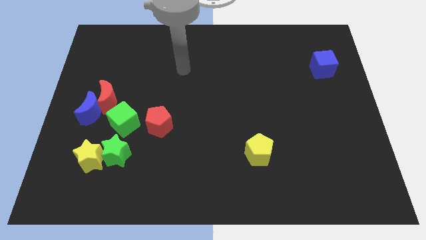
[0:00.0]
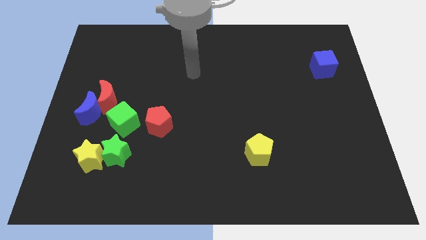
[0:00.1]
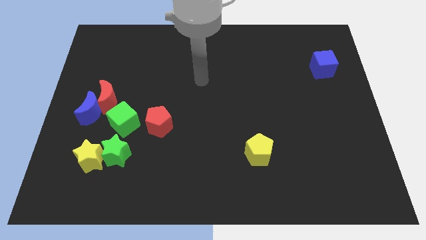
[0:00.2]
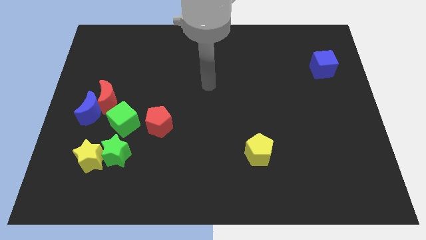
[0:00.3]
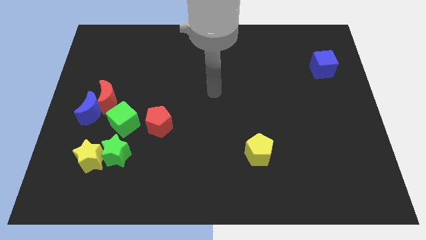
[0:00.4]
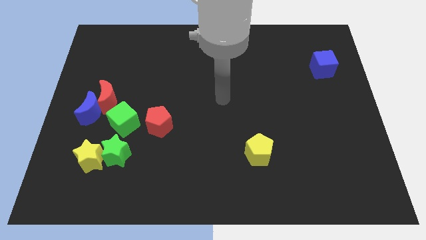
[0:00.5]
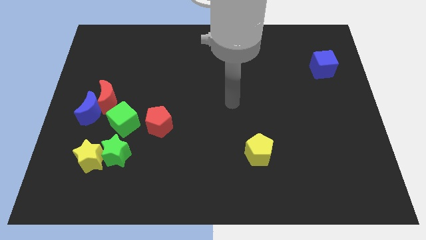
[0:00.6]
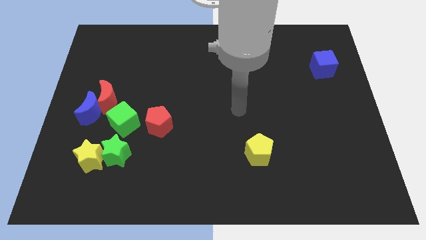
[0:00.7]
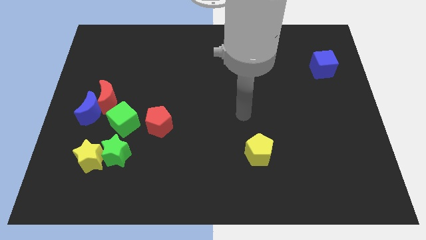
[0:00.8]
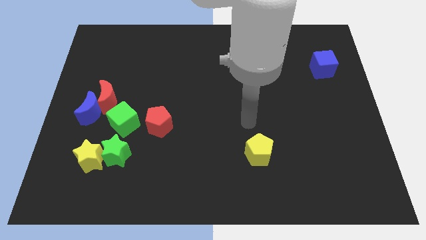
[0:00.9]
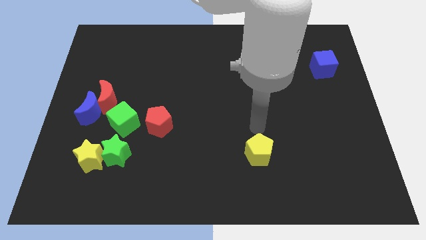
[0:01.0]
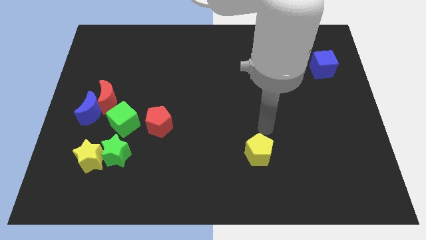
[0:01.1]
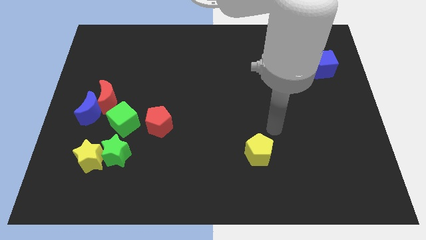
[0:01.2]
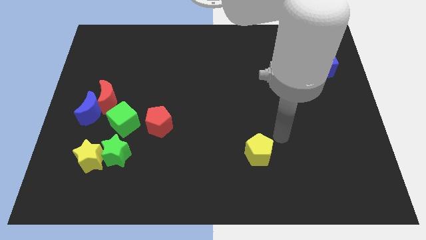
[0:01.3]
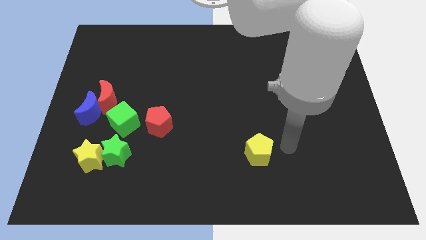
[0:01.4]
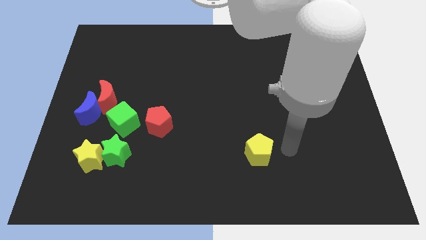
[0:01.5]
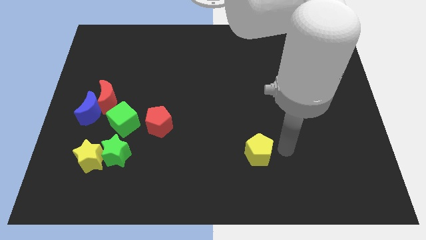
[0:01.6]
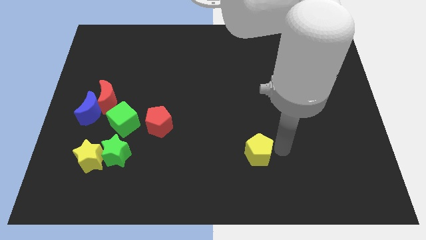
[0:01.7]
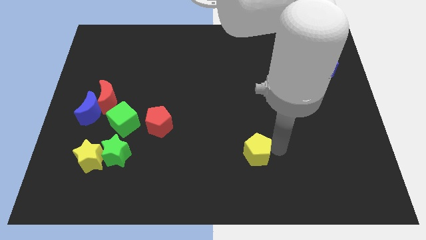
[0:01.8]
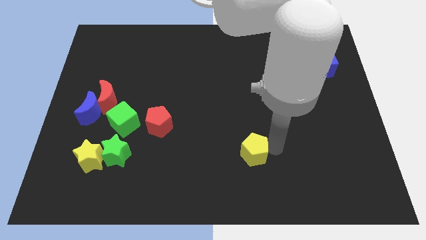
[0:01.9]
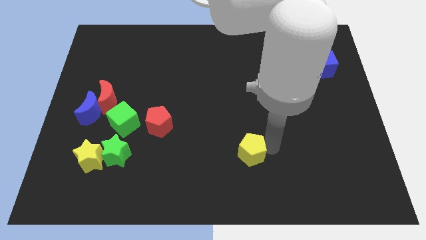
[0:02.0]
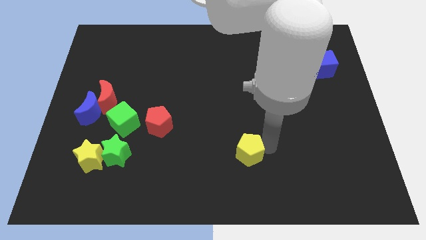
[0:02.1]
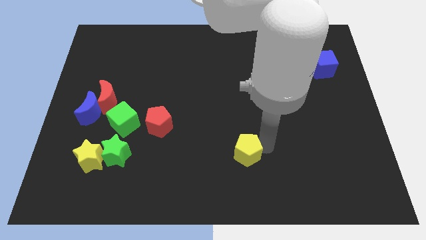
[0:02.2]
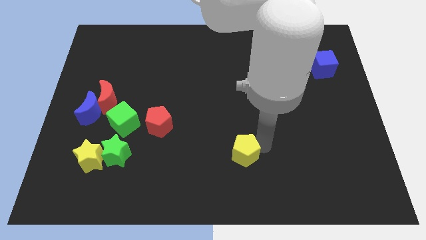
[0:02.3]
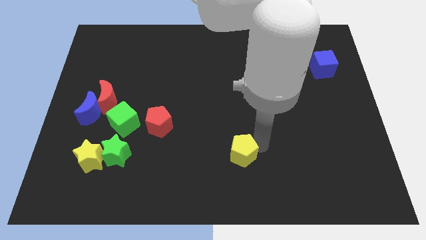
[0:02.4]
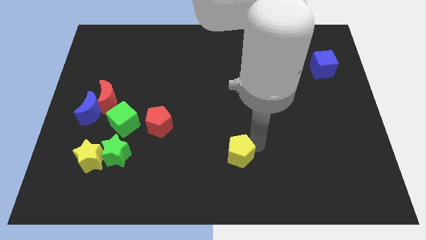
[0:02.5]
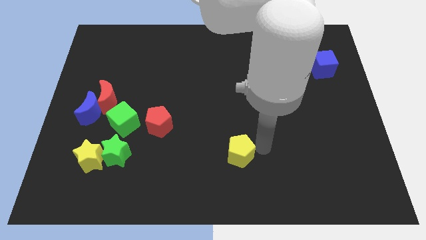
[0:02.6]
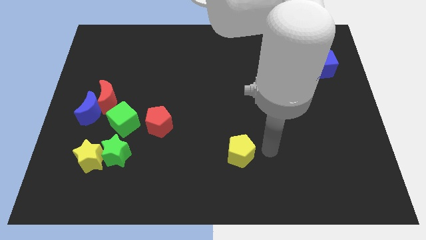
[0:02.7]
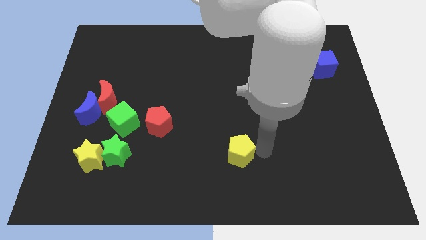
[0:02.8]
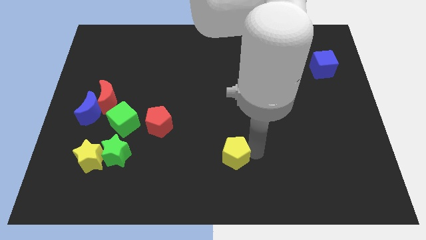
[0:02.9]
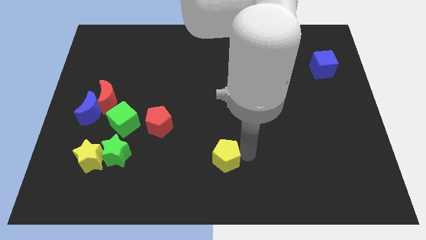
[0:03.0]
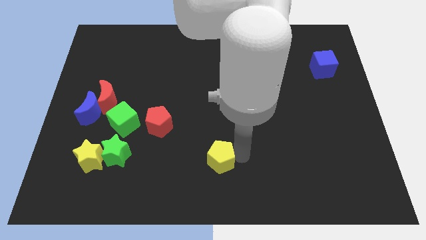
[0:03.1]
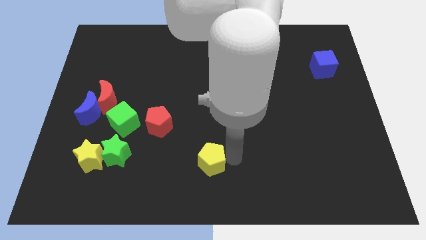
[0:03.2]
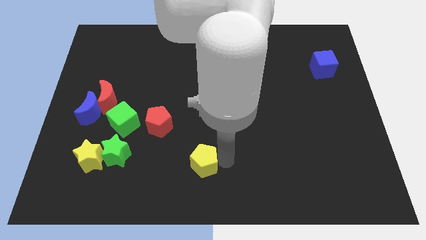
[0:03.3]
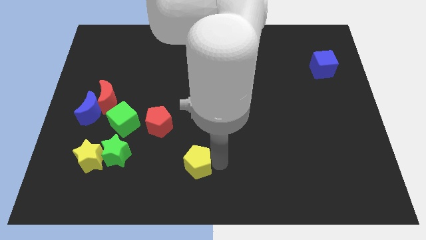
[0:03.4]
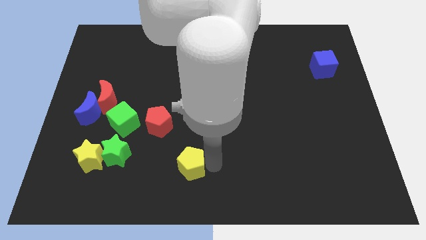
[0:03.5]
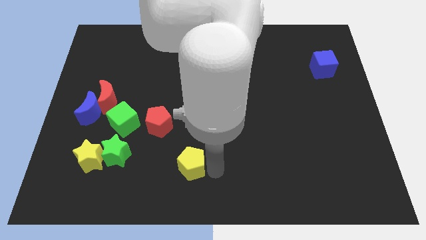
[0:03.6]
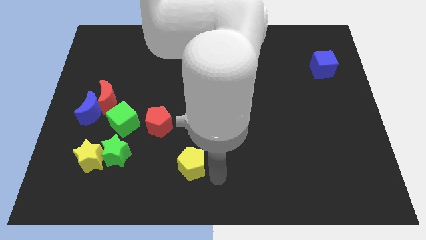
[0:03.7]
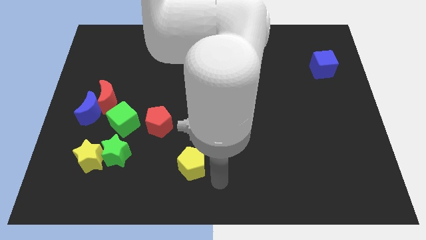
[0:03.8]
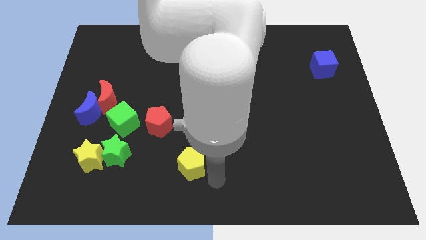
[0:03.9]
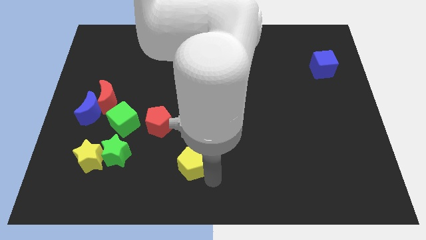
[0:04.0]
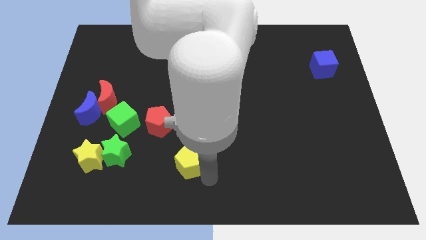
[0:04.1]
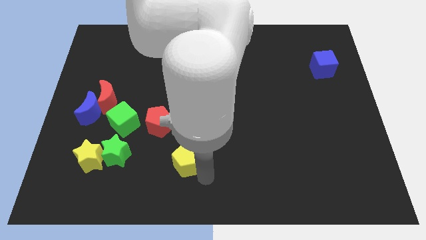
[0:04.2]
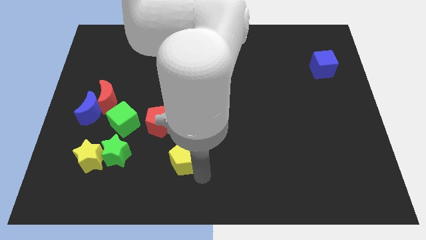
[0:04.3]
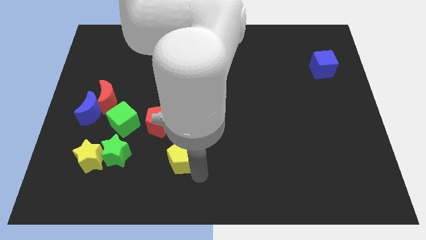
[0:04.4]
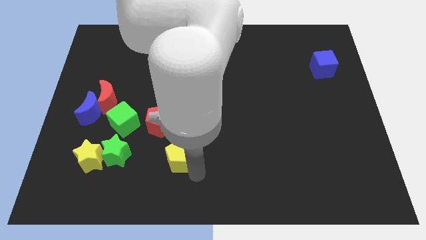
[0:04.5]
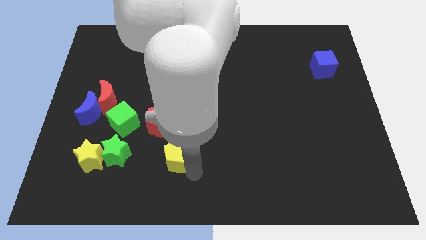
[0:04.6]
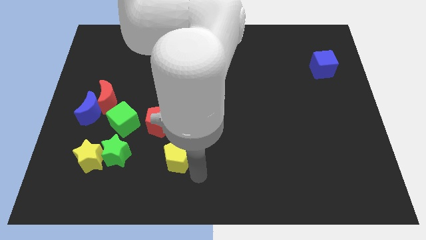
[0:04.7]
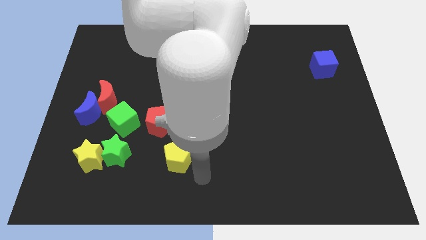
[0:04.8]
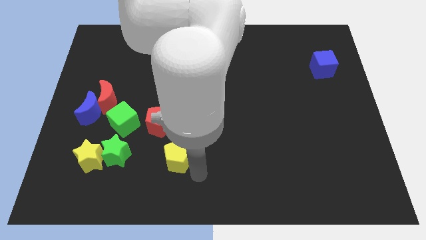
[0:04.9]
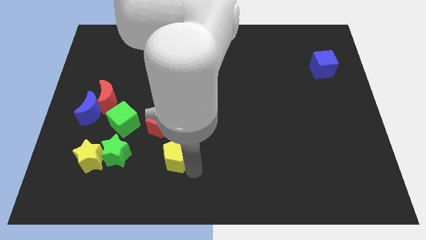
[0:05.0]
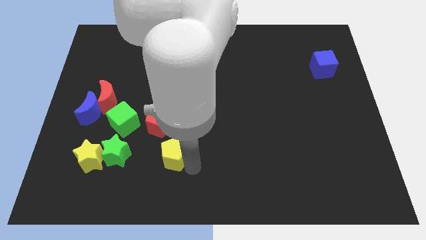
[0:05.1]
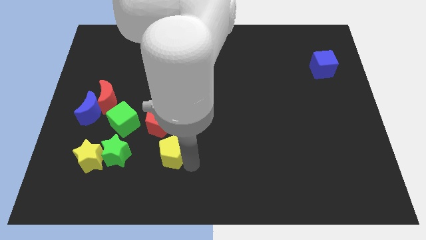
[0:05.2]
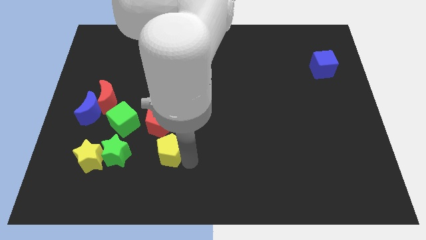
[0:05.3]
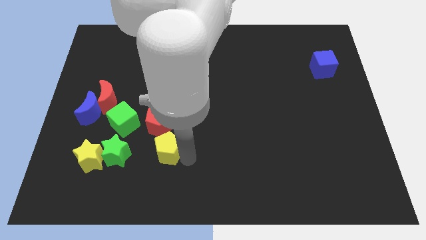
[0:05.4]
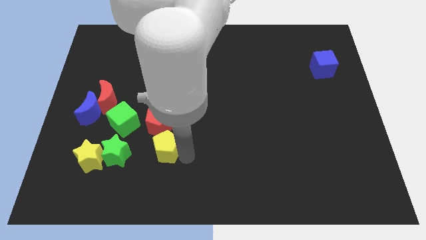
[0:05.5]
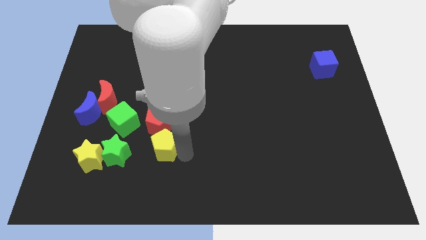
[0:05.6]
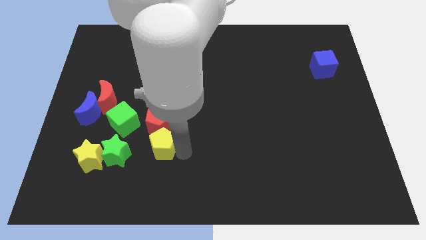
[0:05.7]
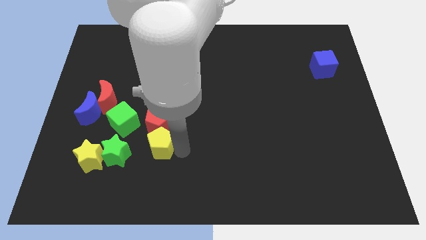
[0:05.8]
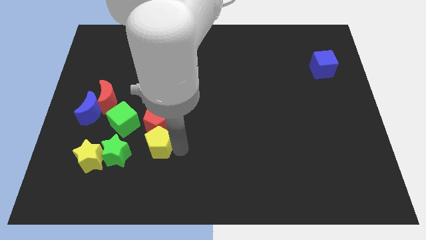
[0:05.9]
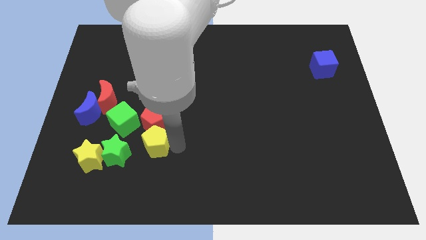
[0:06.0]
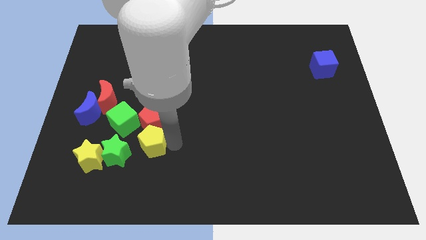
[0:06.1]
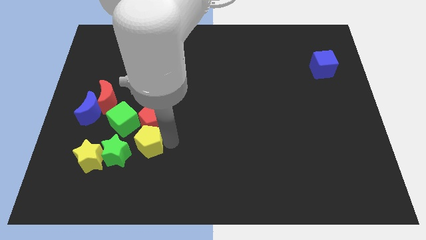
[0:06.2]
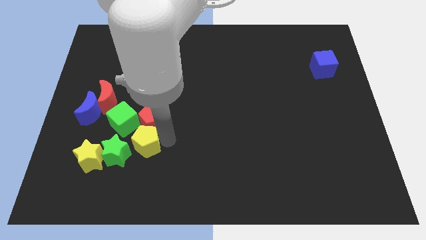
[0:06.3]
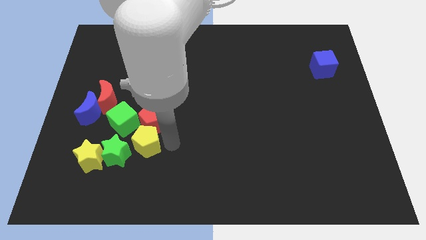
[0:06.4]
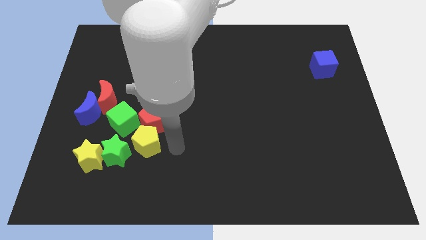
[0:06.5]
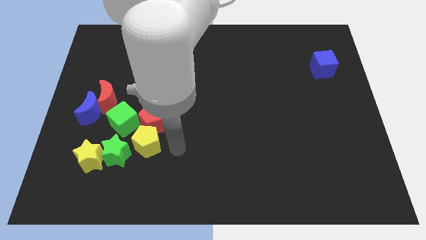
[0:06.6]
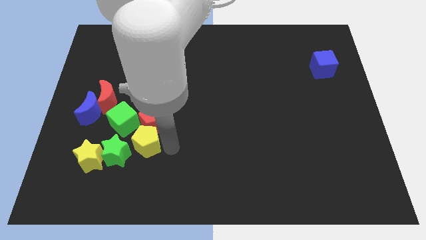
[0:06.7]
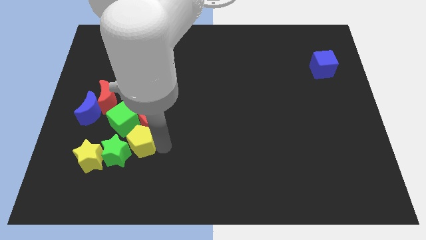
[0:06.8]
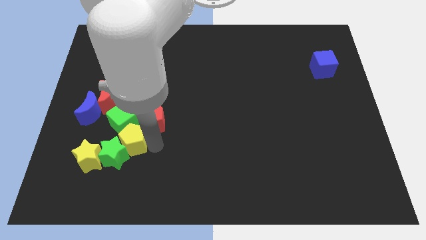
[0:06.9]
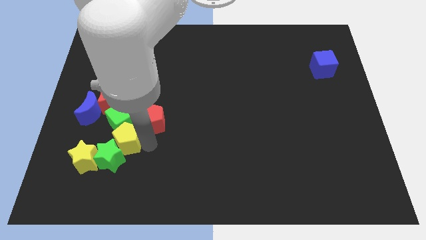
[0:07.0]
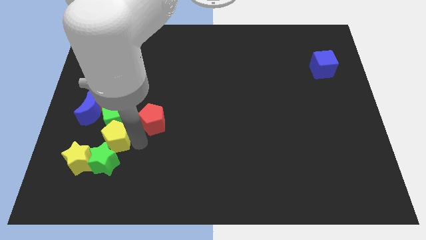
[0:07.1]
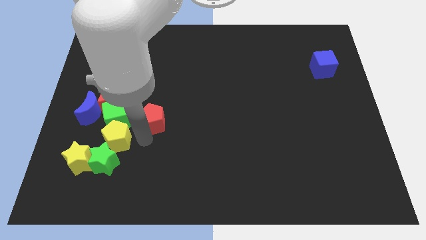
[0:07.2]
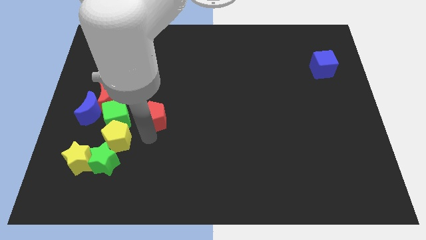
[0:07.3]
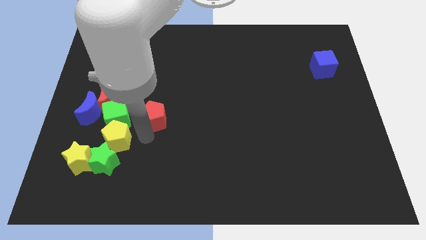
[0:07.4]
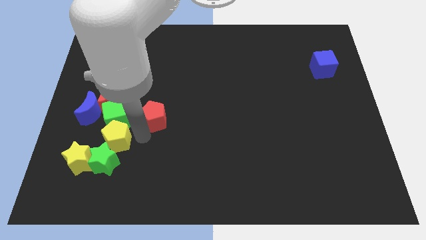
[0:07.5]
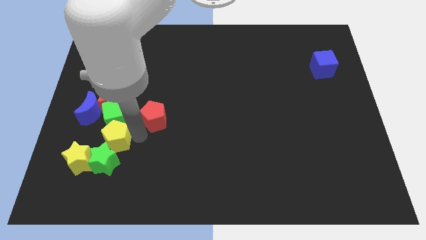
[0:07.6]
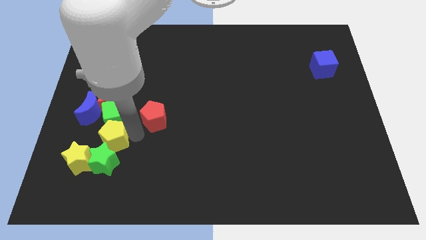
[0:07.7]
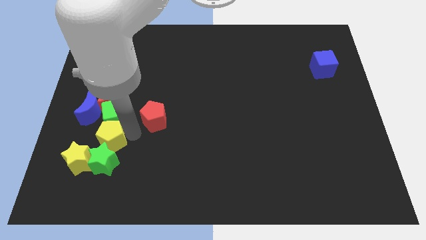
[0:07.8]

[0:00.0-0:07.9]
slide the yellow pentagon diagonally up and to the left of the green star
